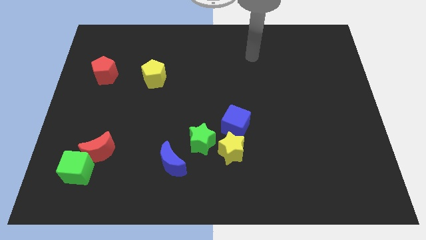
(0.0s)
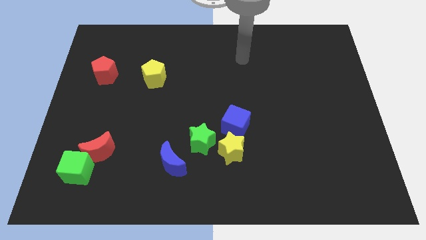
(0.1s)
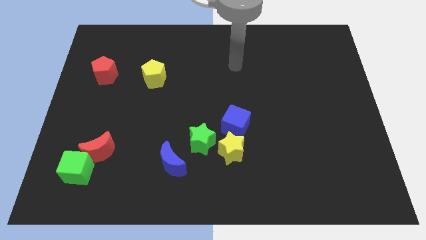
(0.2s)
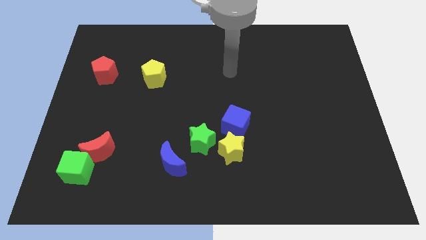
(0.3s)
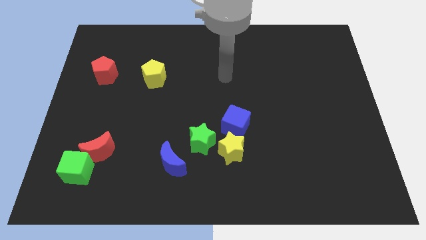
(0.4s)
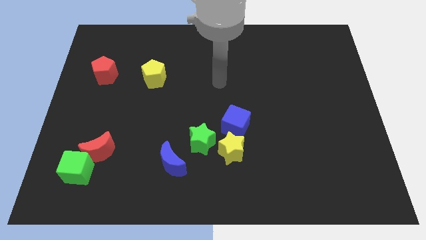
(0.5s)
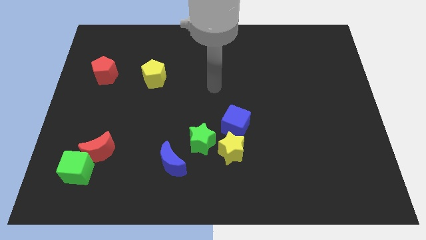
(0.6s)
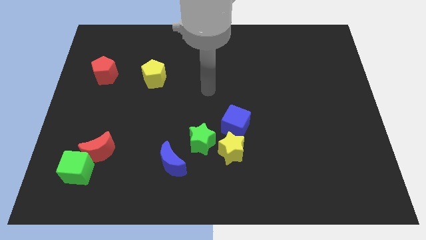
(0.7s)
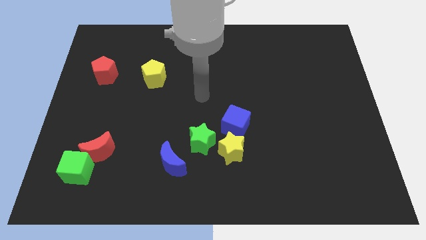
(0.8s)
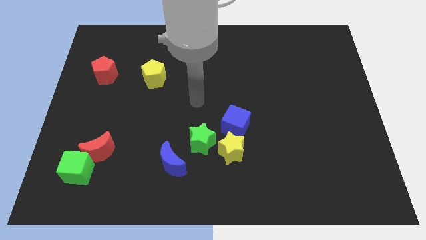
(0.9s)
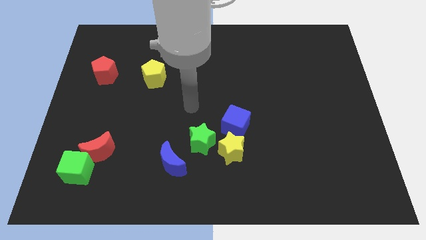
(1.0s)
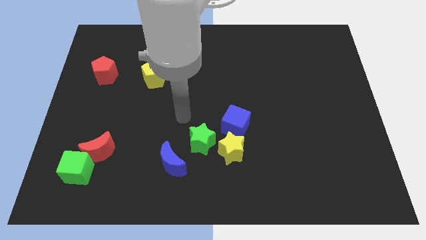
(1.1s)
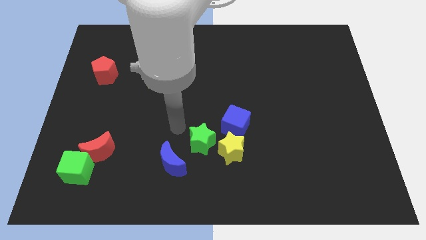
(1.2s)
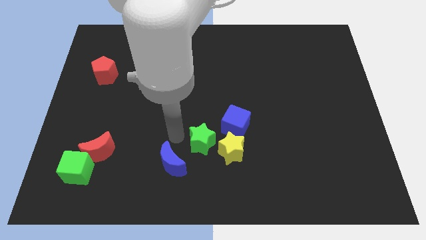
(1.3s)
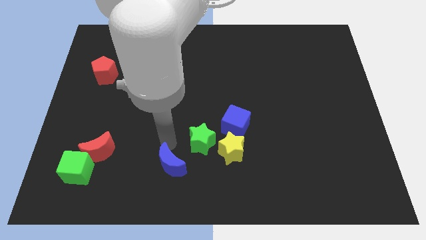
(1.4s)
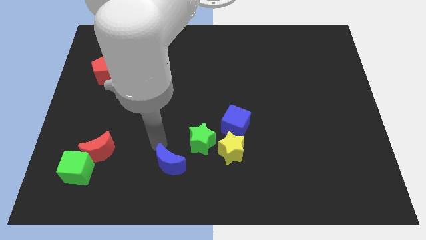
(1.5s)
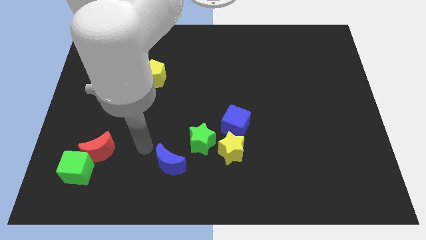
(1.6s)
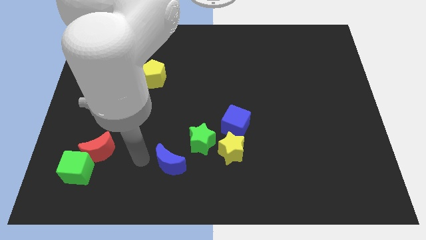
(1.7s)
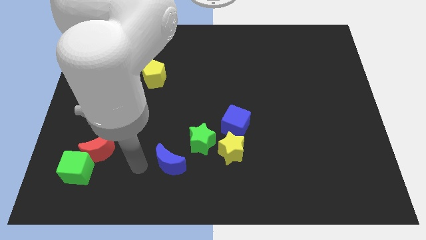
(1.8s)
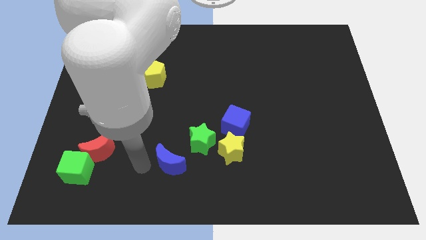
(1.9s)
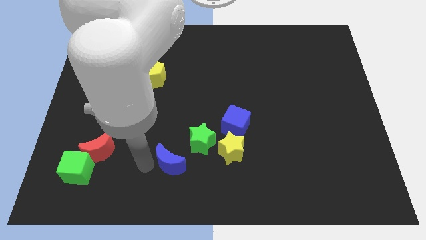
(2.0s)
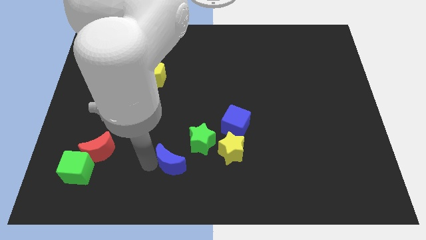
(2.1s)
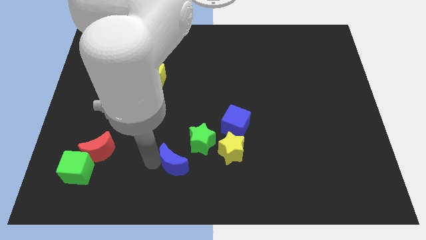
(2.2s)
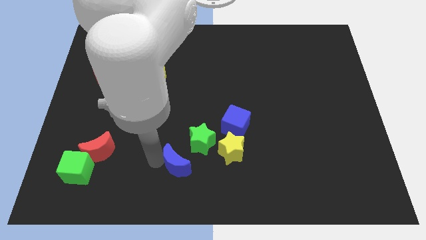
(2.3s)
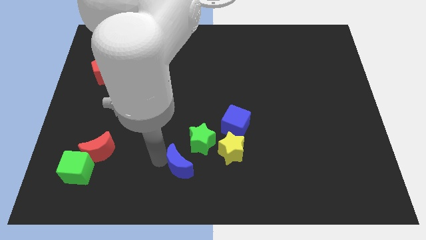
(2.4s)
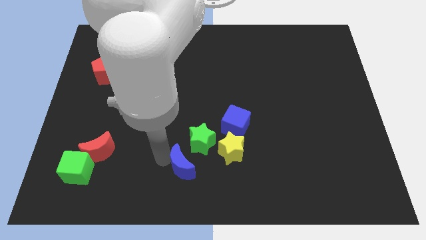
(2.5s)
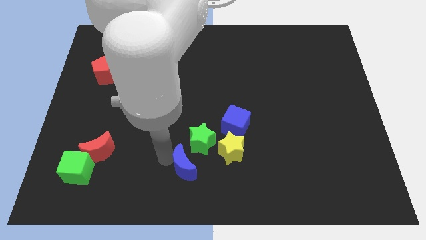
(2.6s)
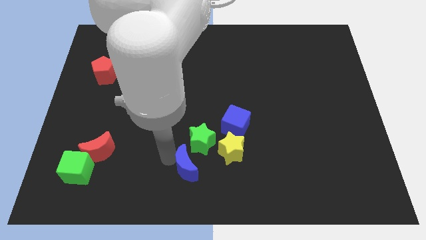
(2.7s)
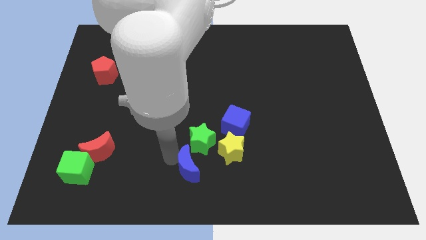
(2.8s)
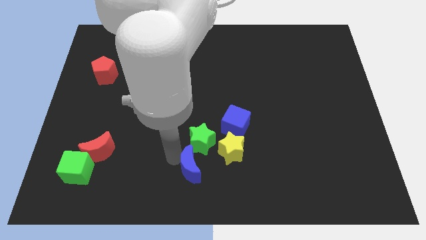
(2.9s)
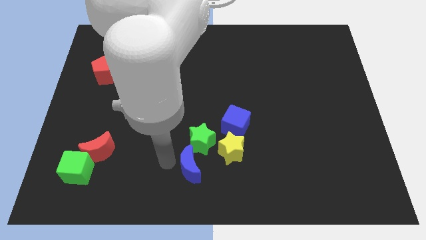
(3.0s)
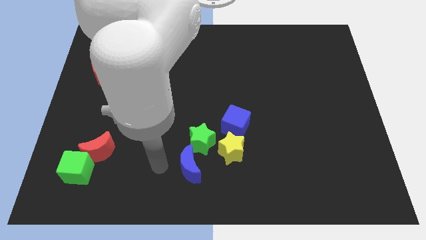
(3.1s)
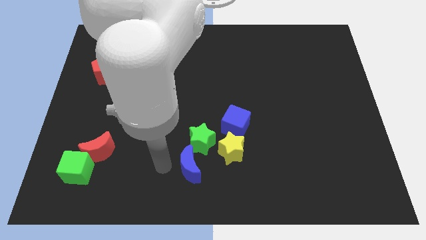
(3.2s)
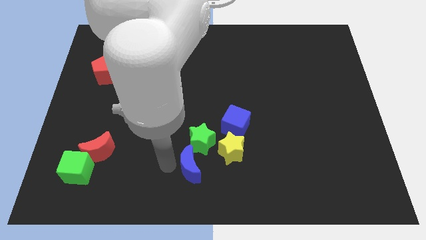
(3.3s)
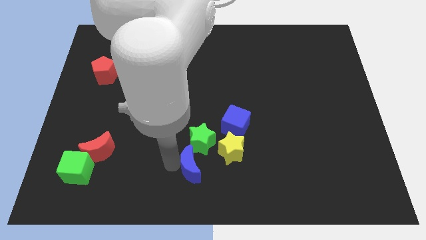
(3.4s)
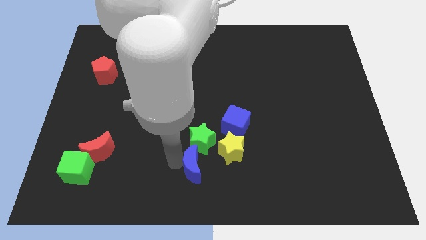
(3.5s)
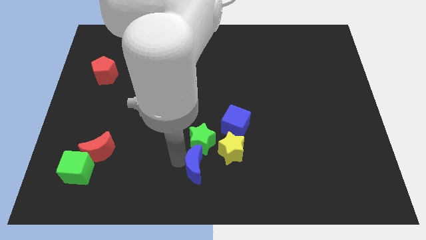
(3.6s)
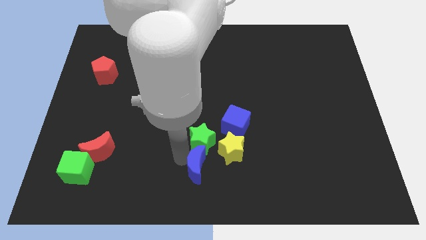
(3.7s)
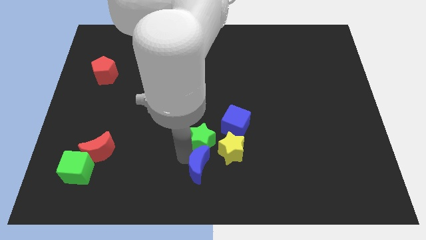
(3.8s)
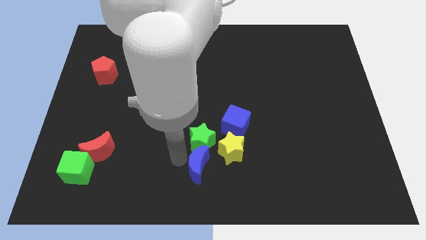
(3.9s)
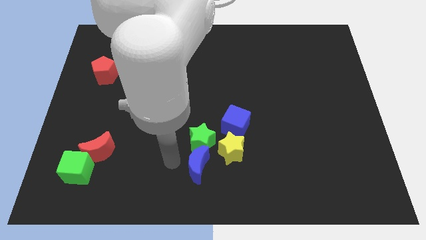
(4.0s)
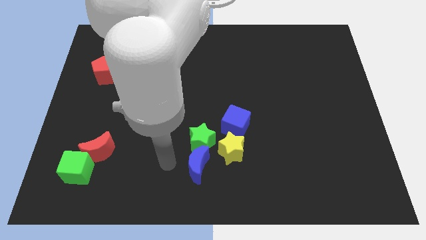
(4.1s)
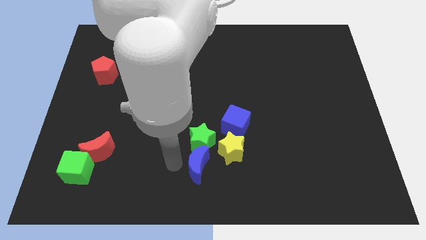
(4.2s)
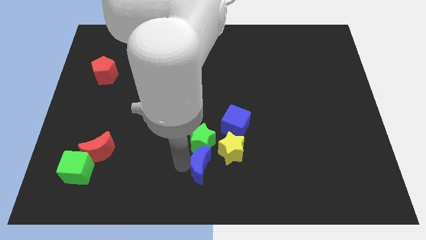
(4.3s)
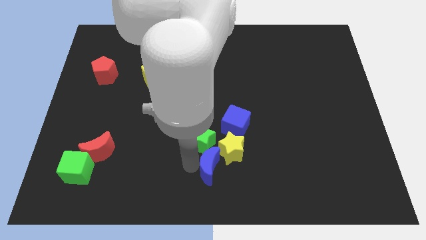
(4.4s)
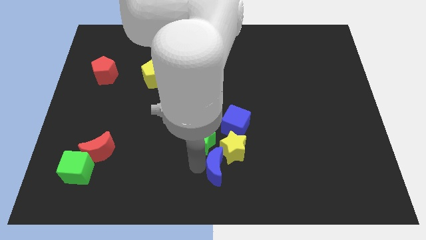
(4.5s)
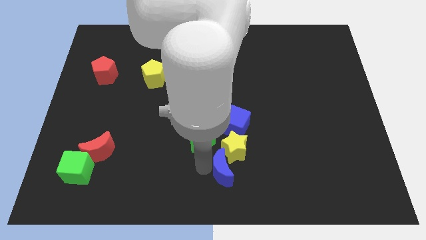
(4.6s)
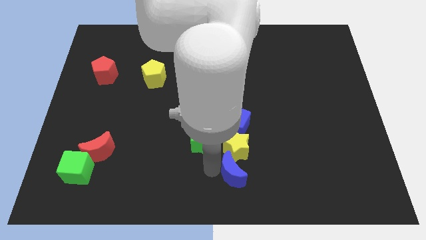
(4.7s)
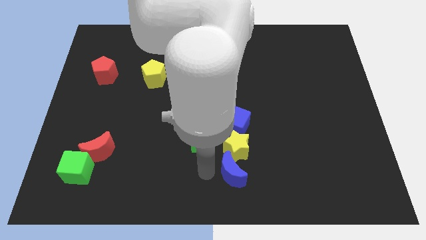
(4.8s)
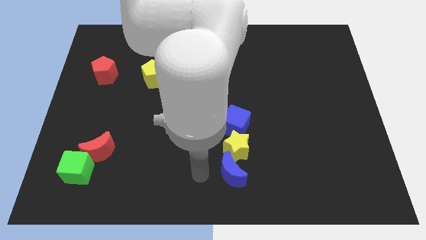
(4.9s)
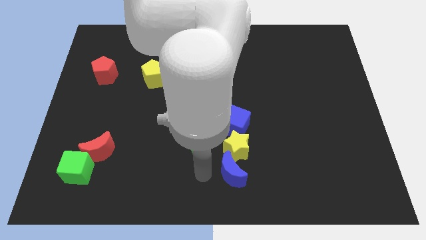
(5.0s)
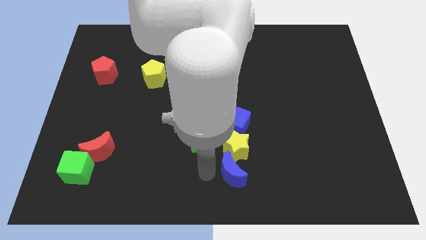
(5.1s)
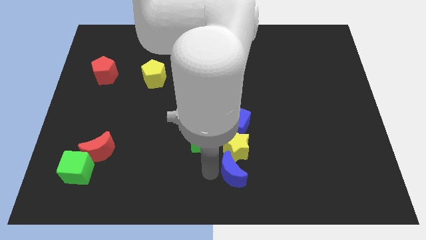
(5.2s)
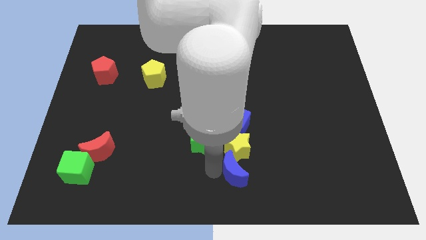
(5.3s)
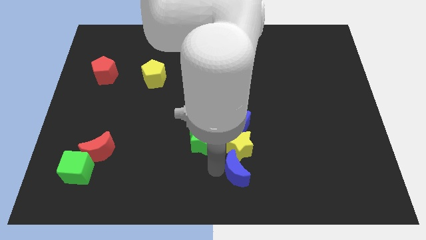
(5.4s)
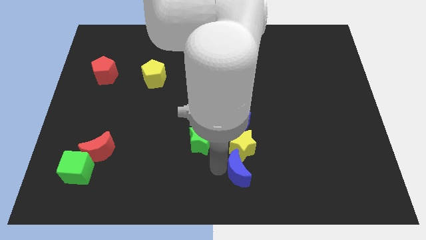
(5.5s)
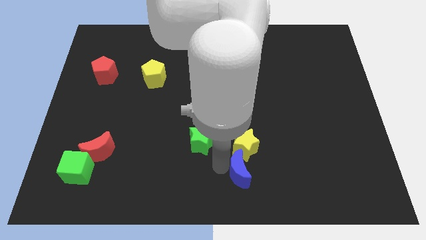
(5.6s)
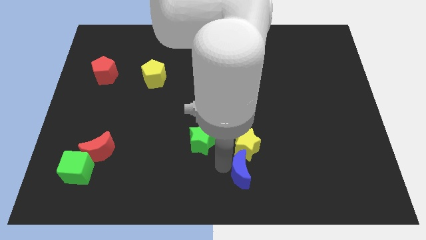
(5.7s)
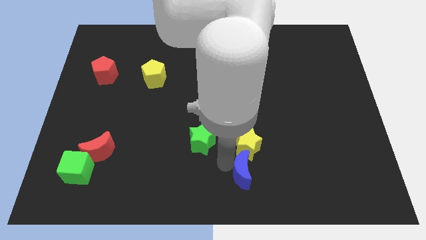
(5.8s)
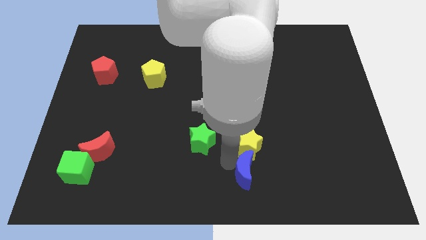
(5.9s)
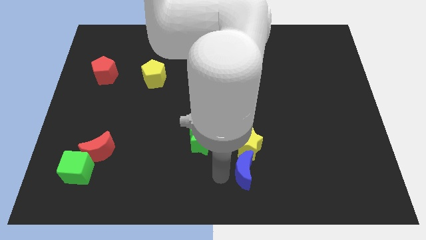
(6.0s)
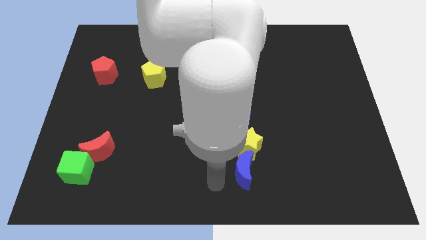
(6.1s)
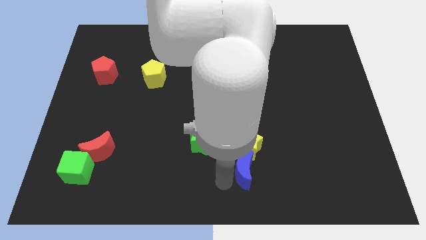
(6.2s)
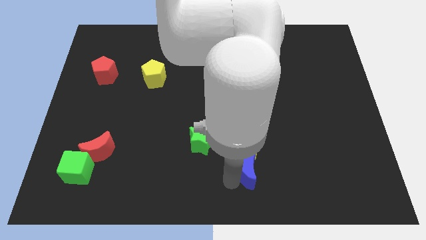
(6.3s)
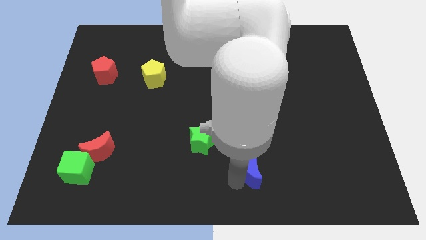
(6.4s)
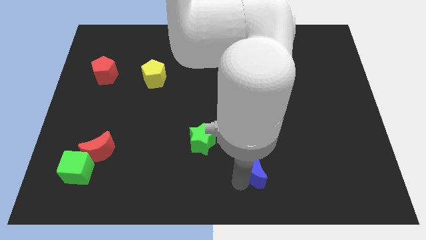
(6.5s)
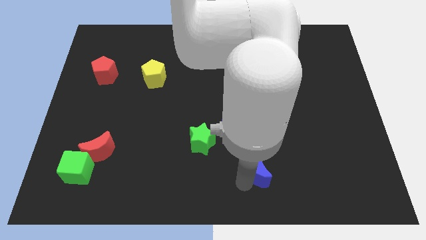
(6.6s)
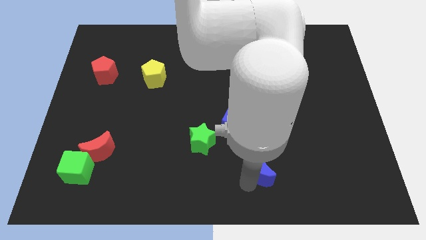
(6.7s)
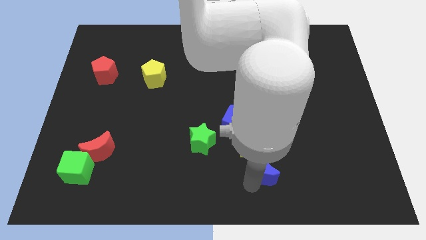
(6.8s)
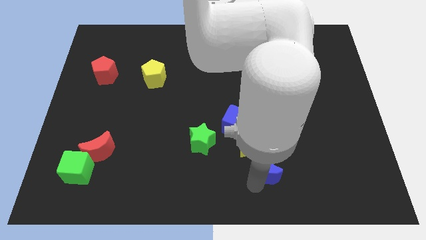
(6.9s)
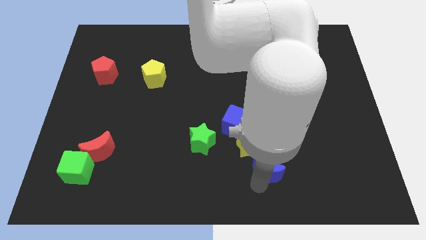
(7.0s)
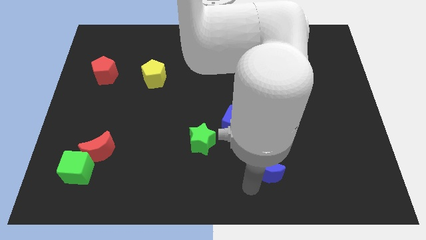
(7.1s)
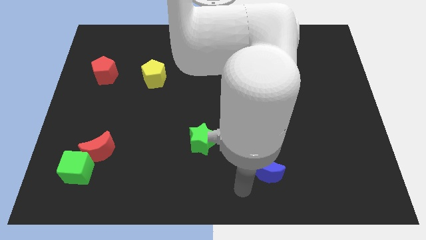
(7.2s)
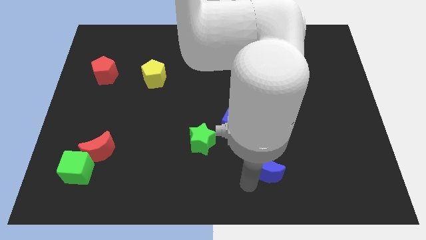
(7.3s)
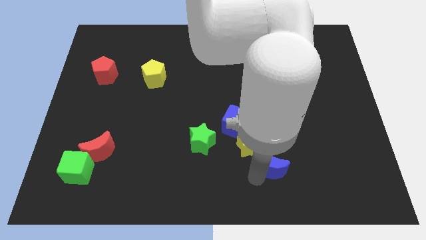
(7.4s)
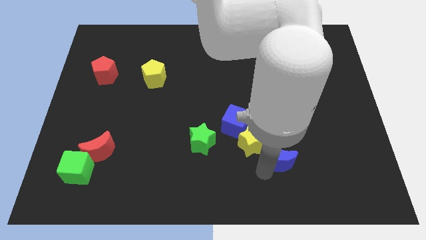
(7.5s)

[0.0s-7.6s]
put the blue moon to the right of the yellow star
